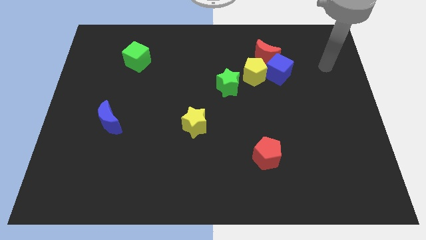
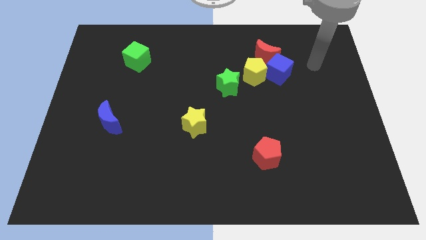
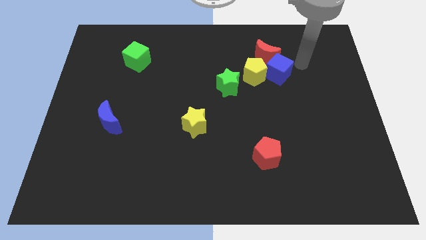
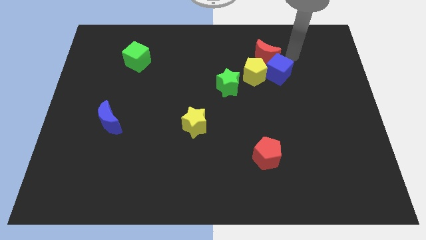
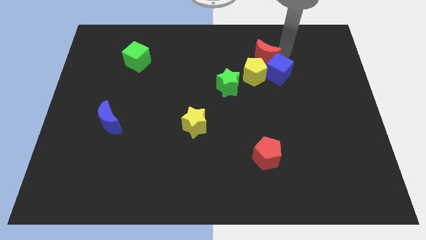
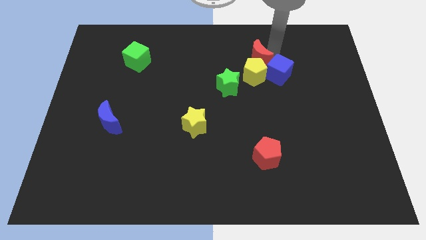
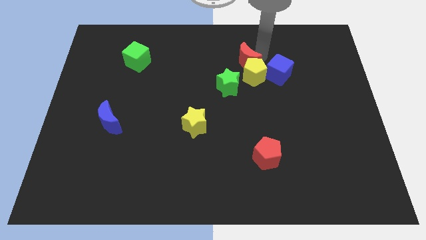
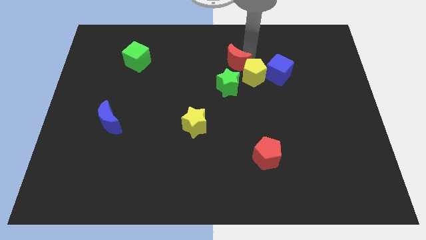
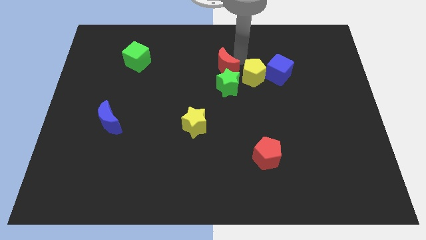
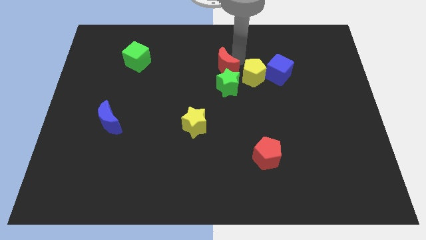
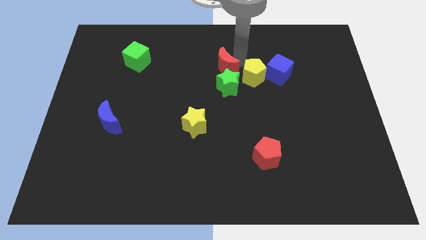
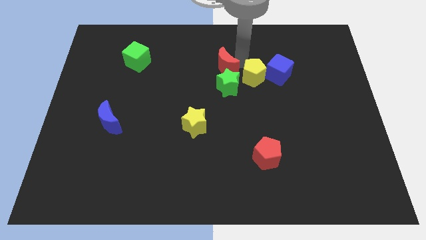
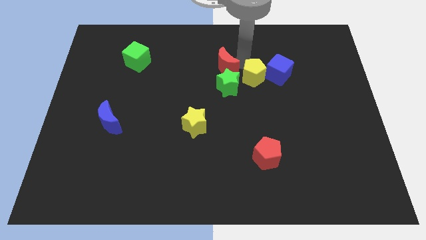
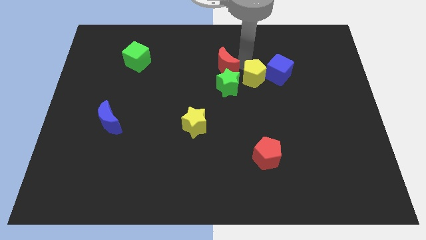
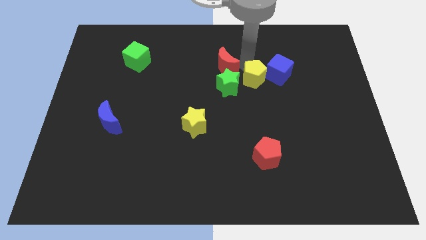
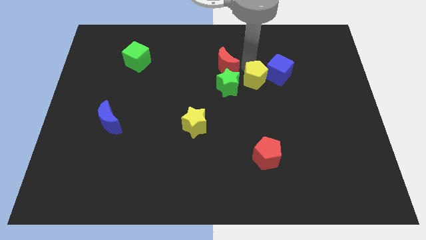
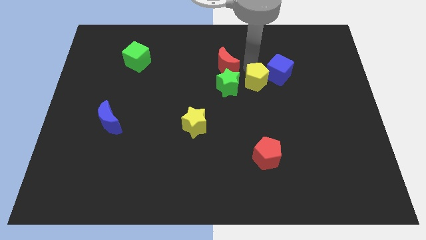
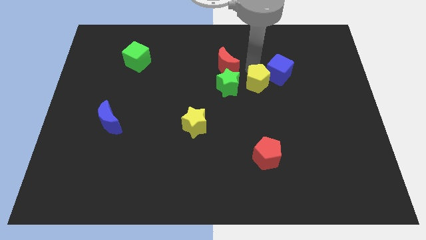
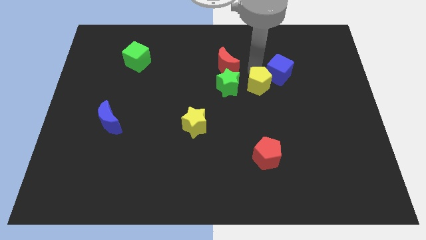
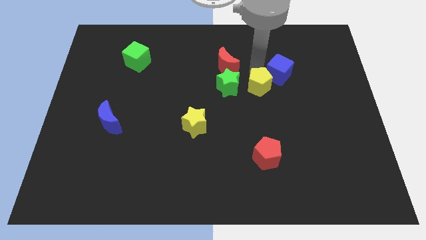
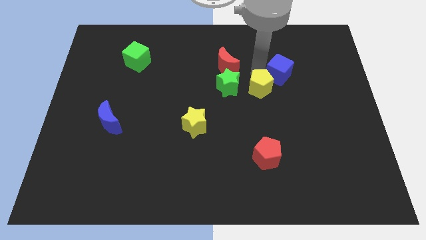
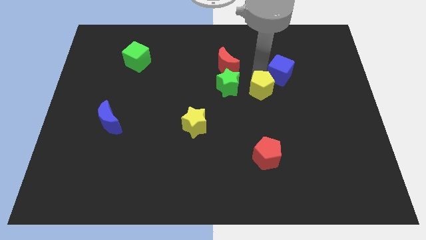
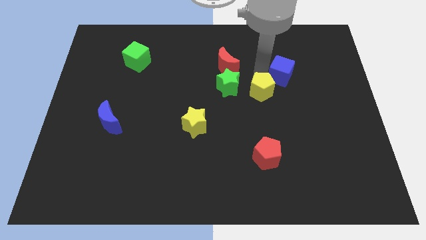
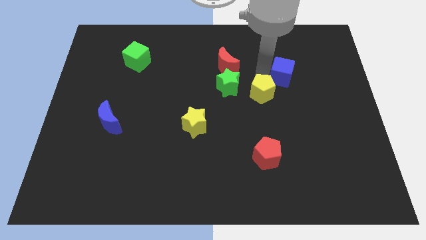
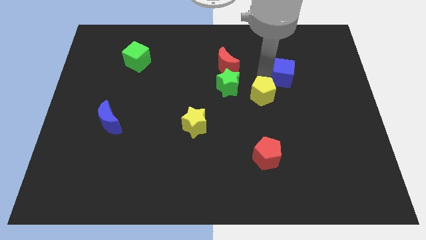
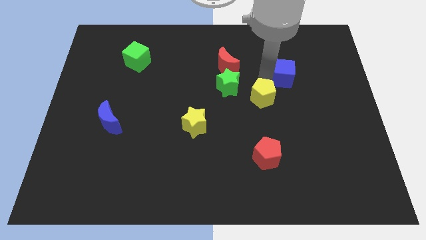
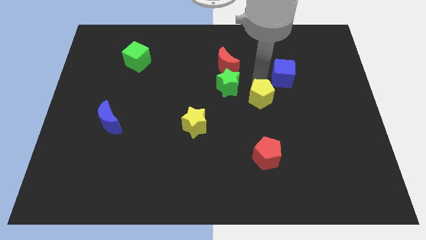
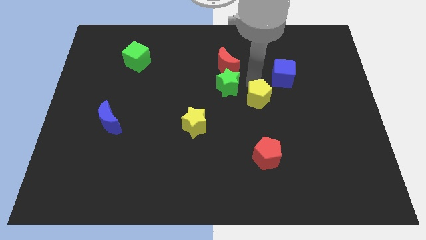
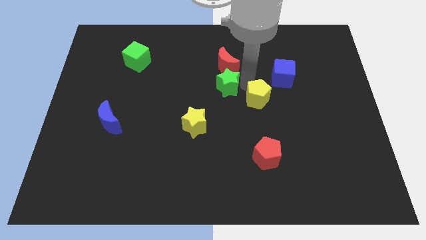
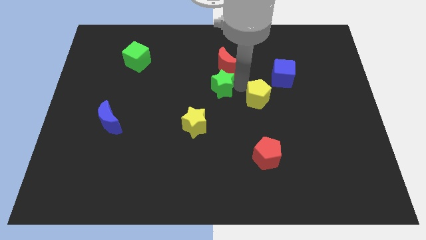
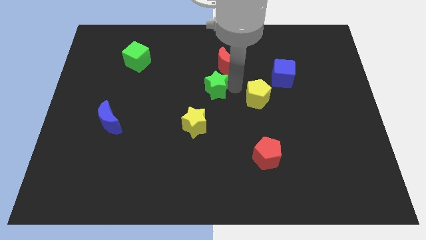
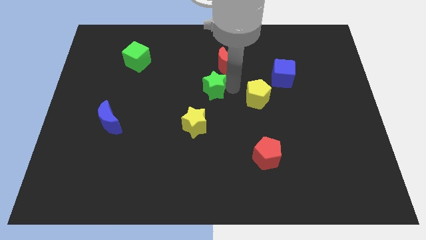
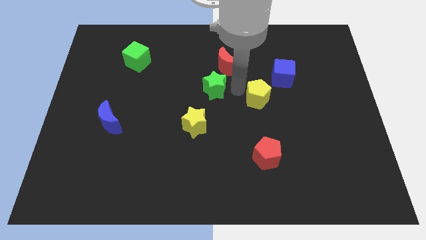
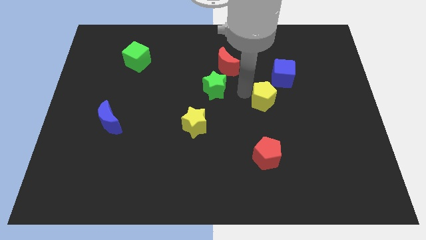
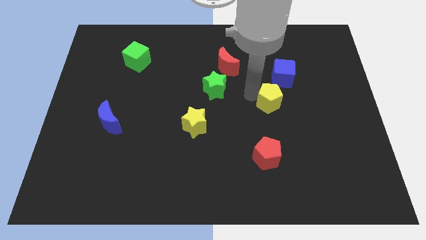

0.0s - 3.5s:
push the yellow pentagon a bit downwards and right

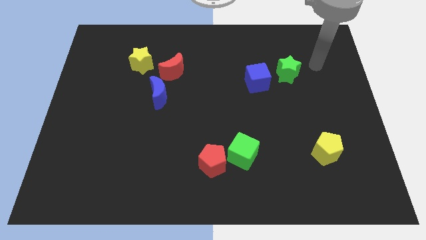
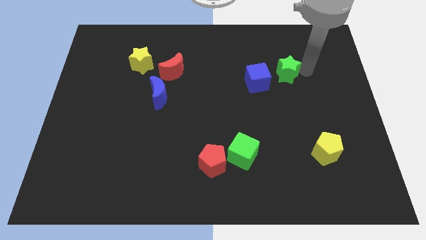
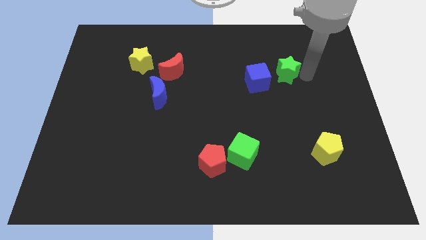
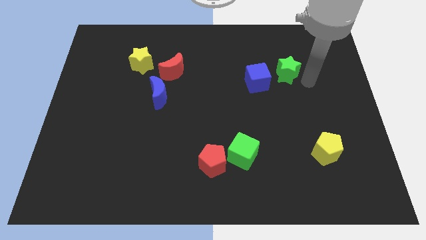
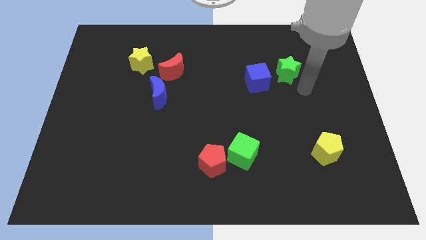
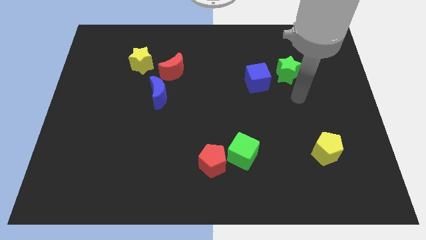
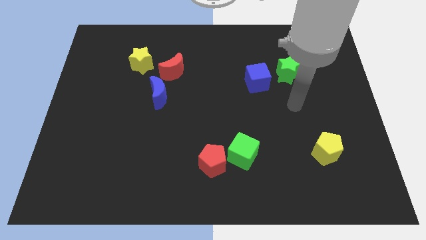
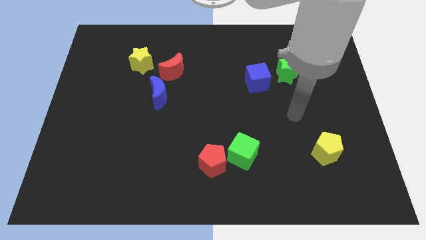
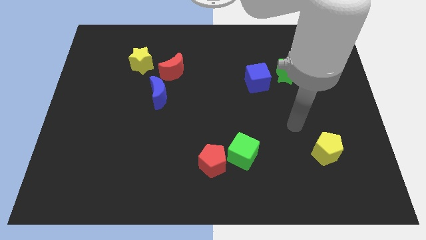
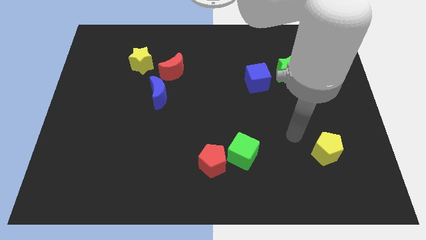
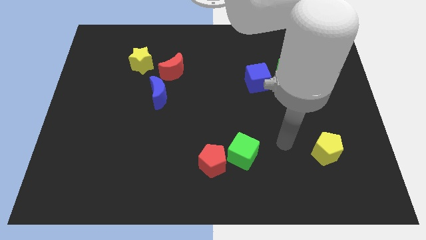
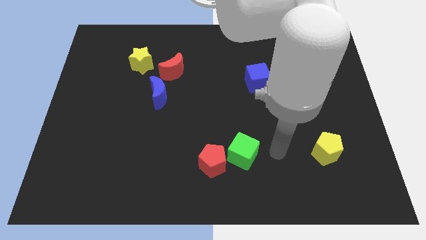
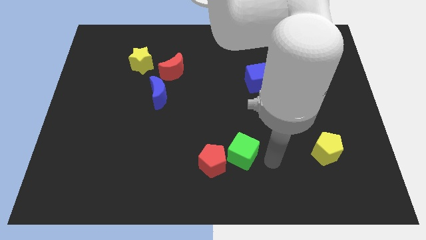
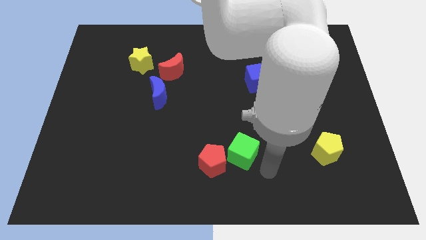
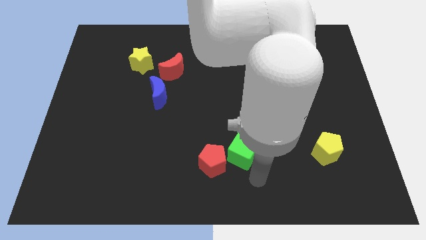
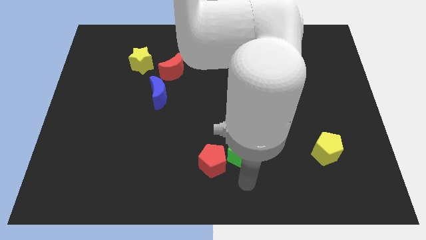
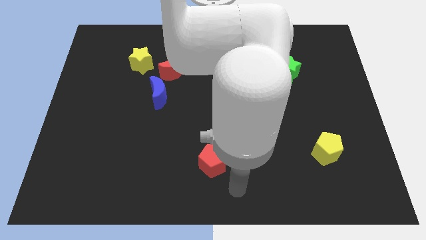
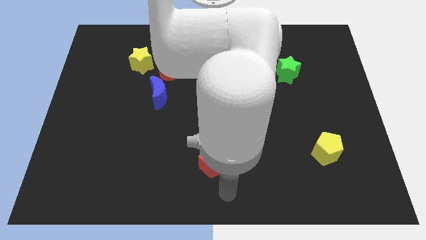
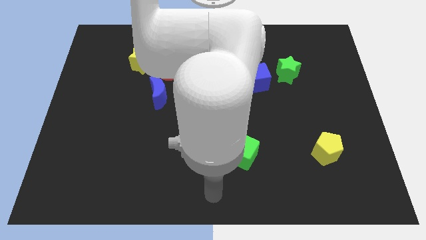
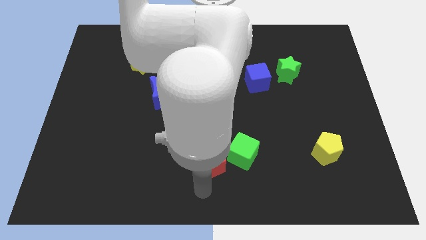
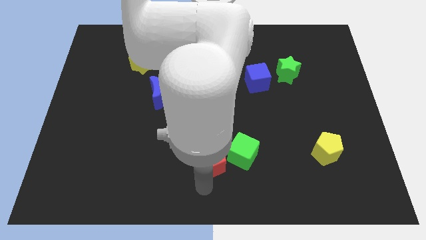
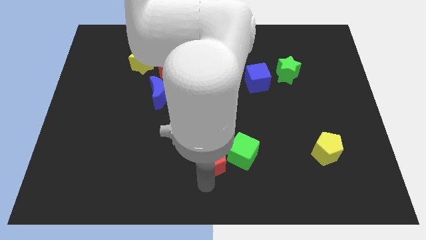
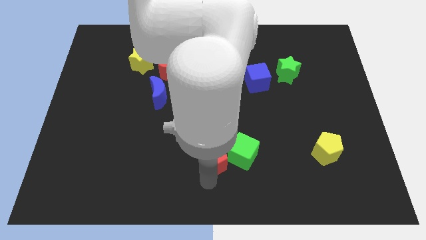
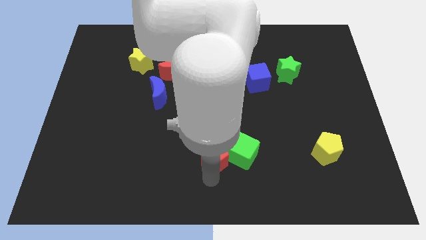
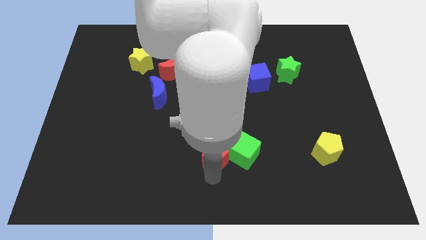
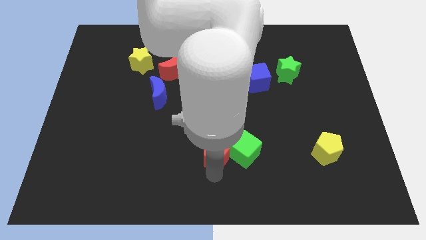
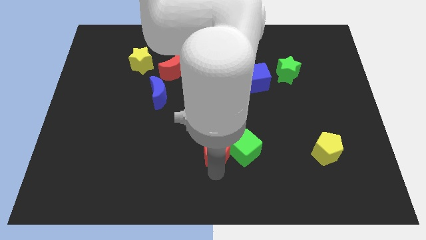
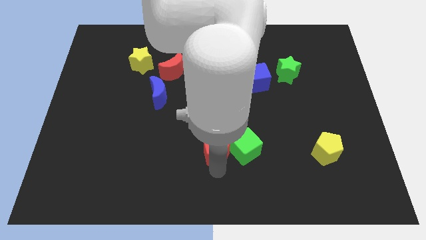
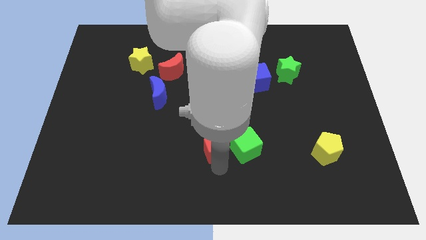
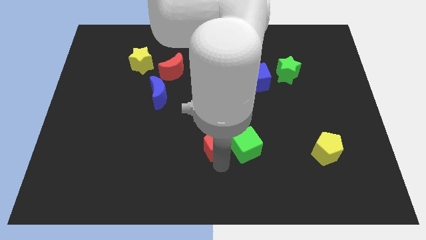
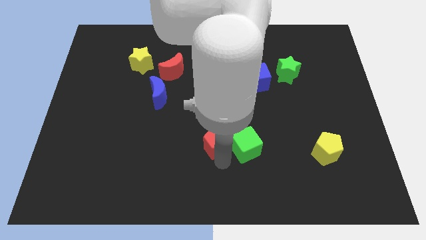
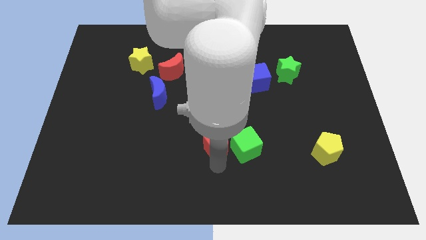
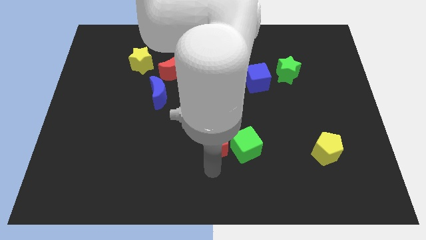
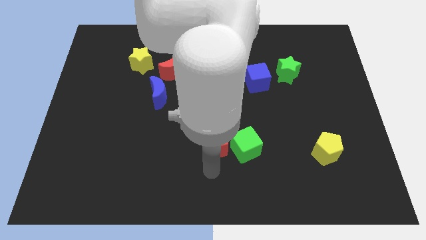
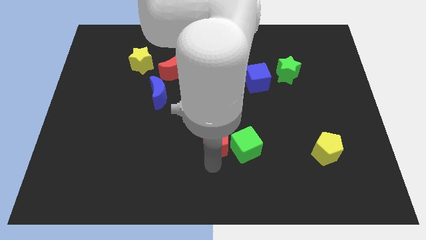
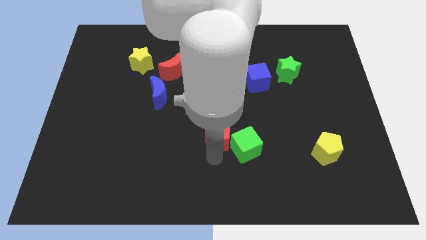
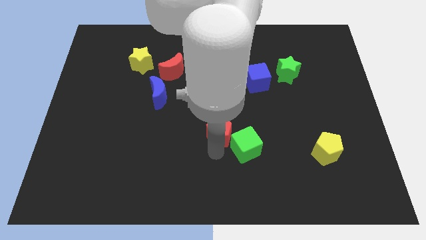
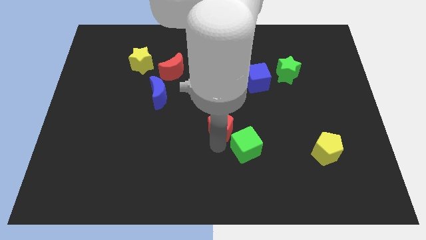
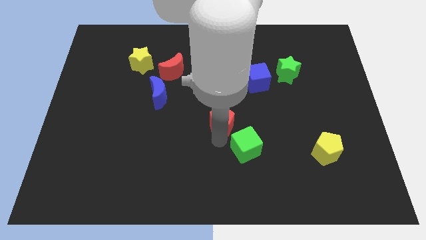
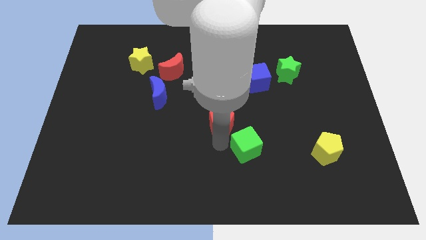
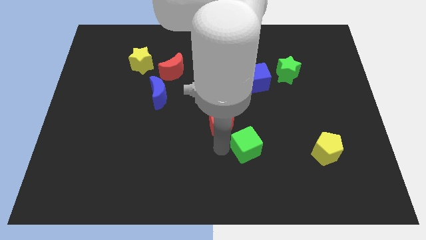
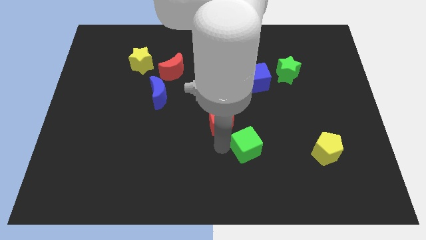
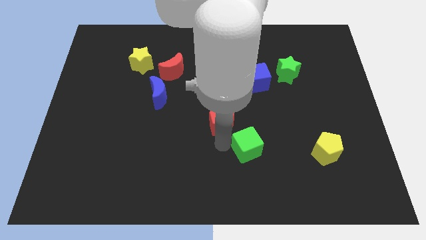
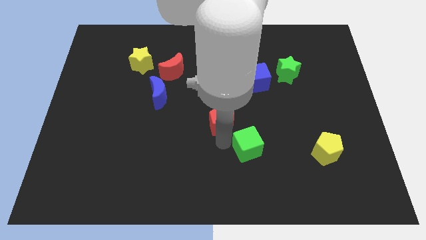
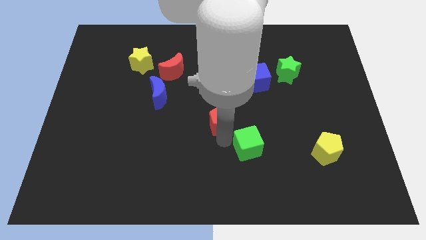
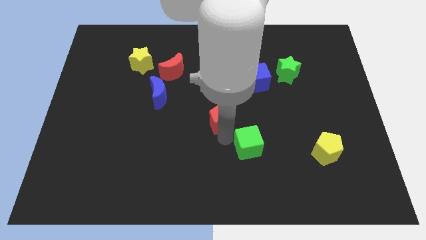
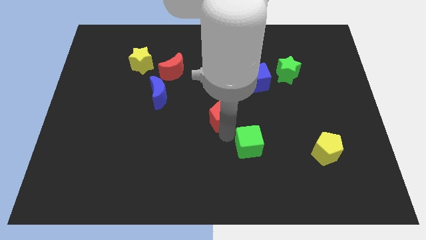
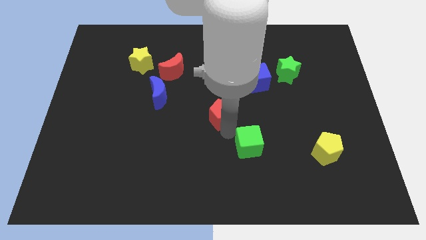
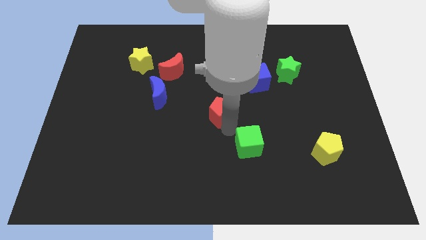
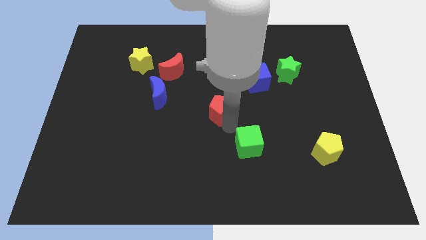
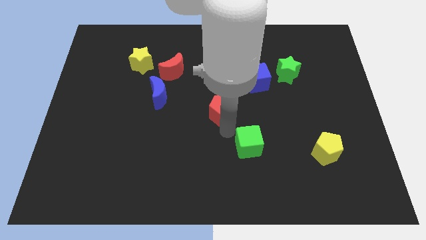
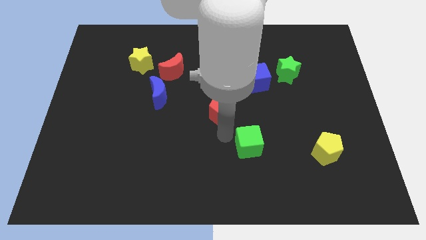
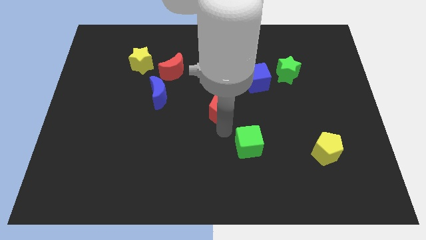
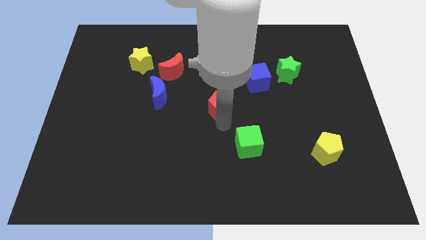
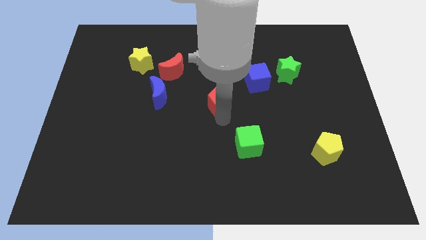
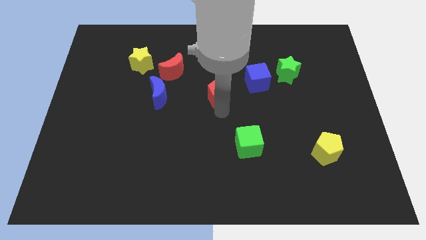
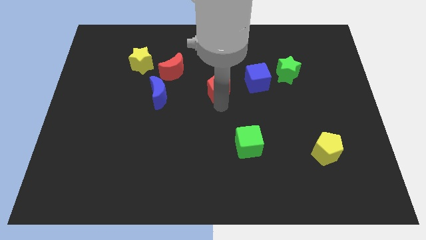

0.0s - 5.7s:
slide the red pentagon up
